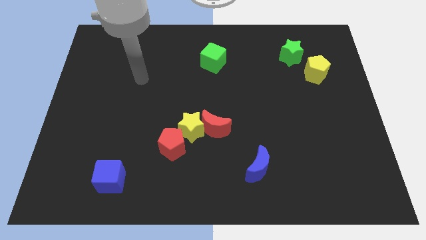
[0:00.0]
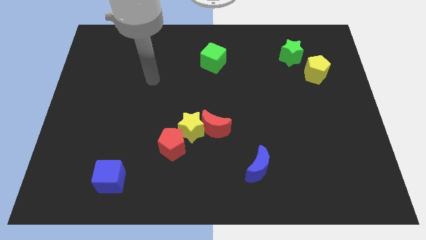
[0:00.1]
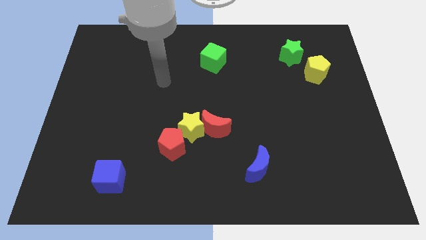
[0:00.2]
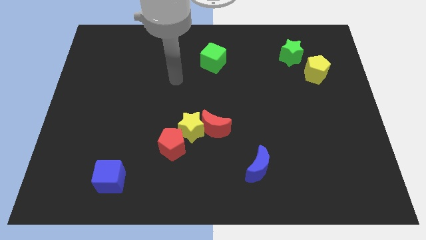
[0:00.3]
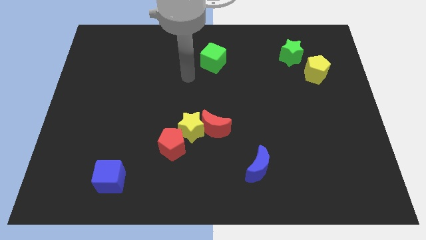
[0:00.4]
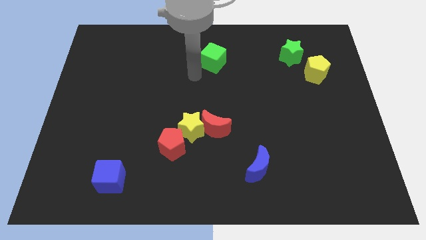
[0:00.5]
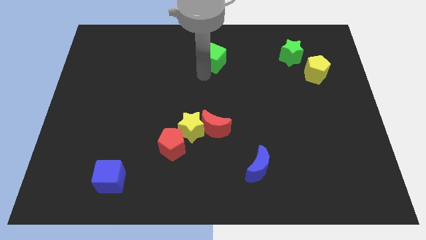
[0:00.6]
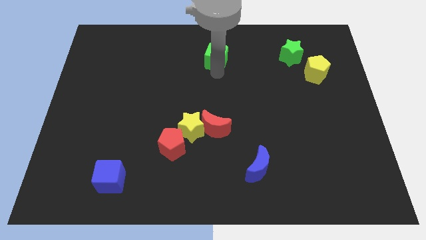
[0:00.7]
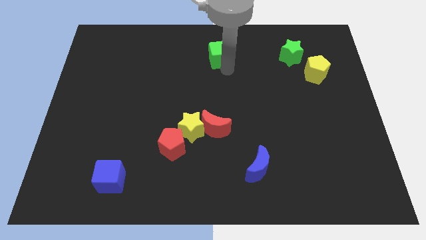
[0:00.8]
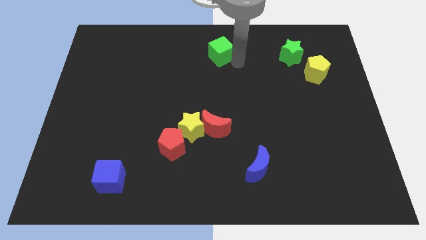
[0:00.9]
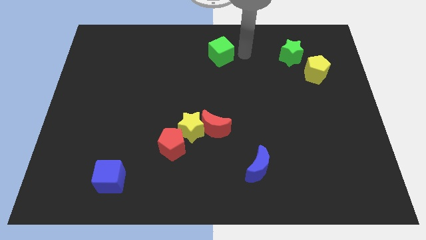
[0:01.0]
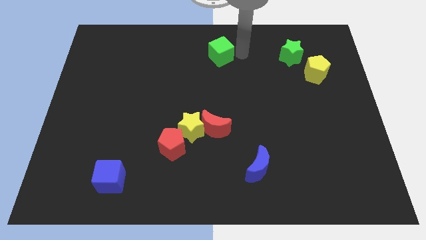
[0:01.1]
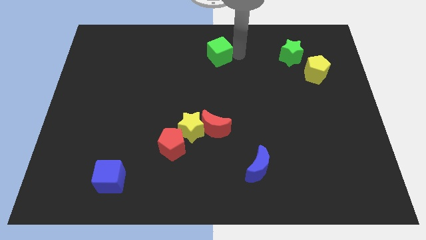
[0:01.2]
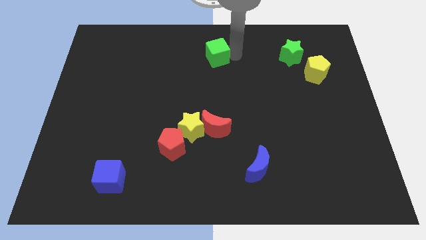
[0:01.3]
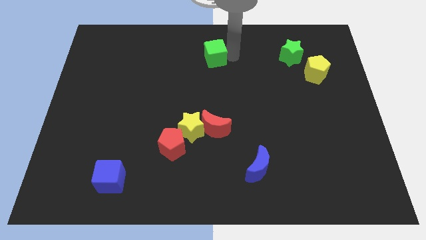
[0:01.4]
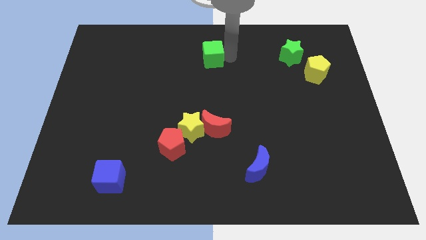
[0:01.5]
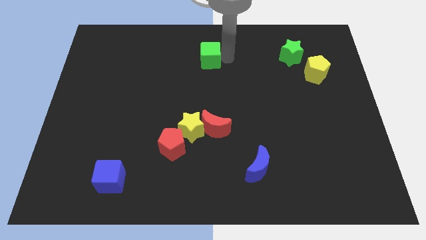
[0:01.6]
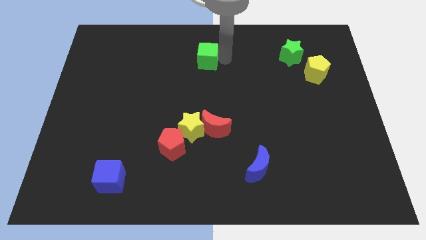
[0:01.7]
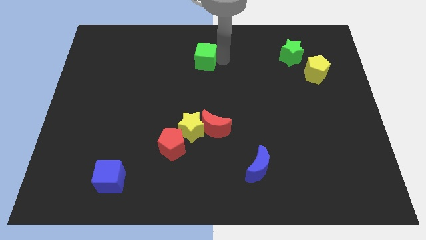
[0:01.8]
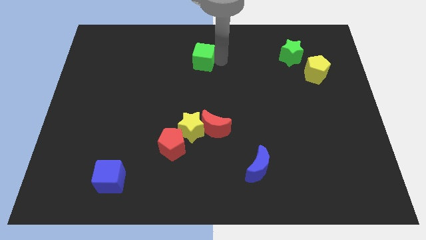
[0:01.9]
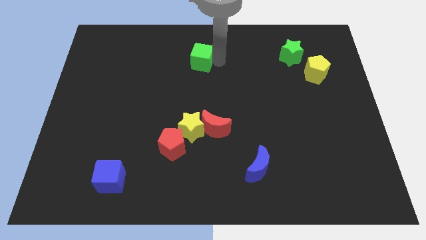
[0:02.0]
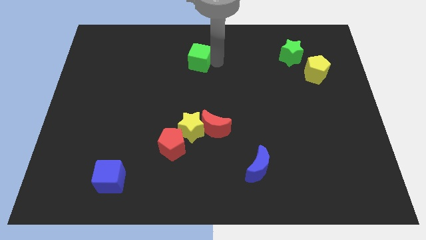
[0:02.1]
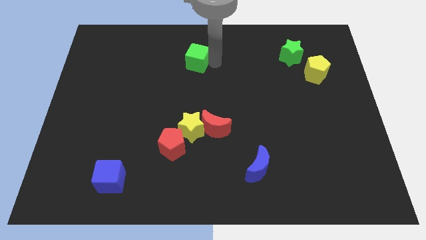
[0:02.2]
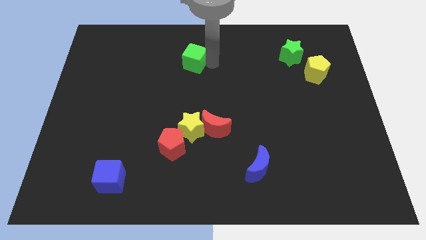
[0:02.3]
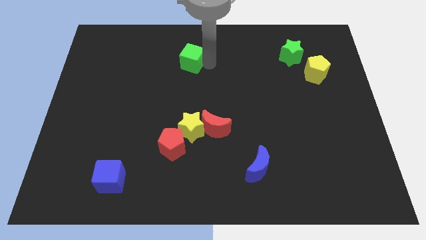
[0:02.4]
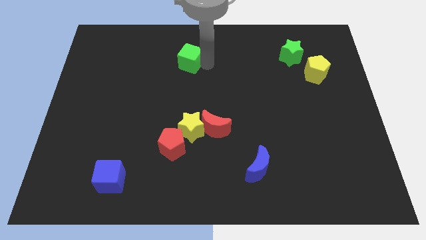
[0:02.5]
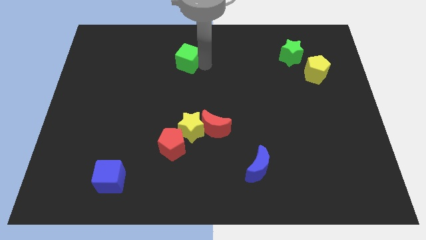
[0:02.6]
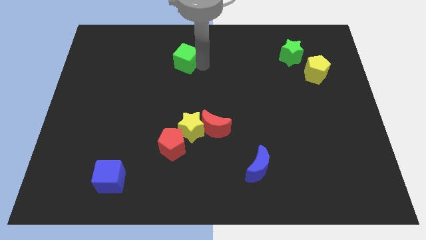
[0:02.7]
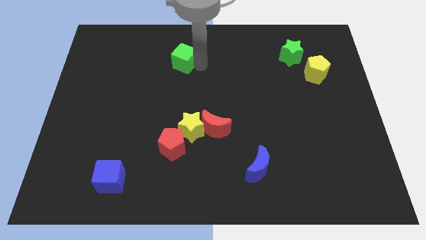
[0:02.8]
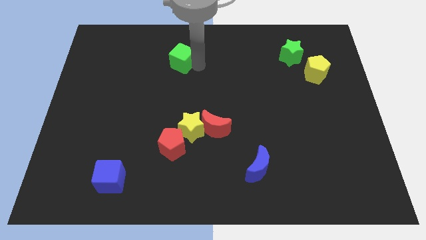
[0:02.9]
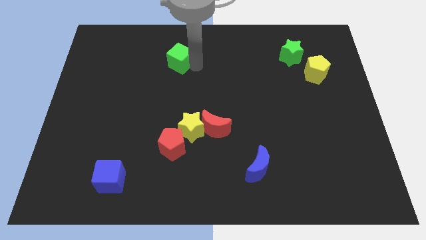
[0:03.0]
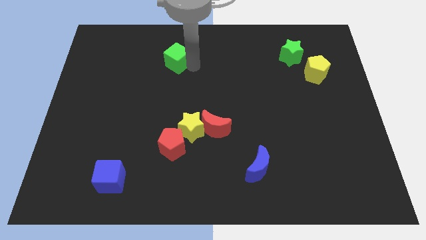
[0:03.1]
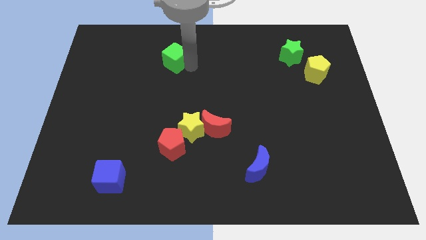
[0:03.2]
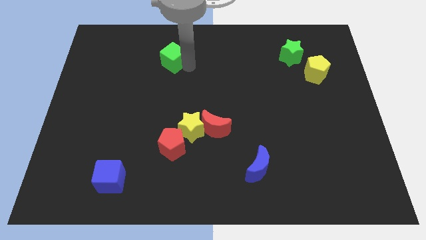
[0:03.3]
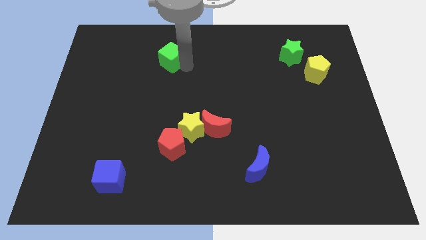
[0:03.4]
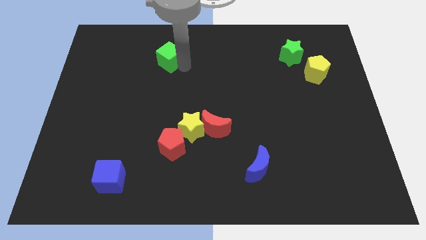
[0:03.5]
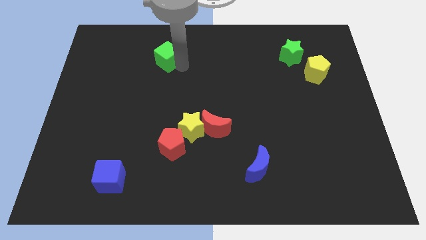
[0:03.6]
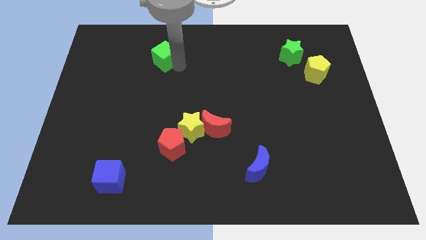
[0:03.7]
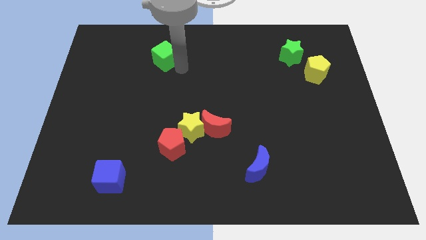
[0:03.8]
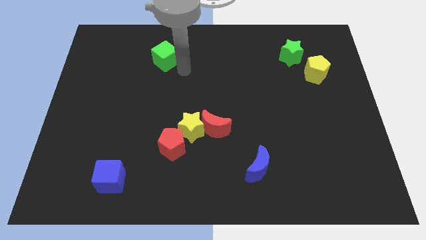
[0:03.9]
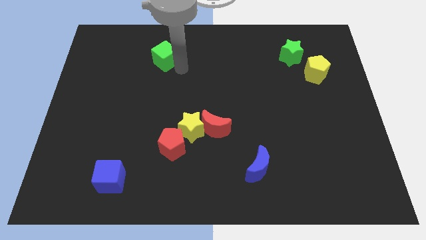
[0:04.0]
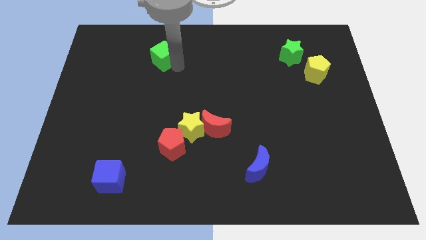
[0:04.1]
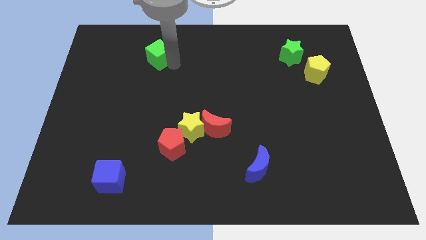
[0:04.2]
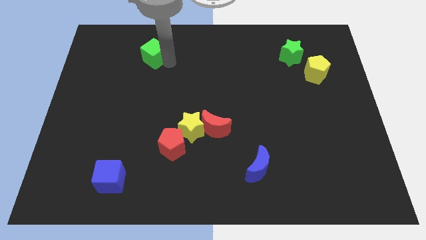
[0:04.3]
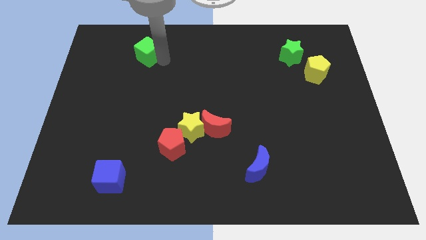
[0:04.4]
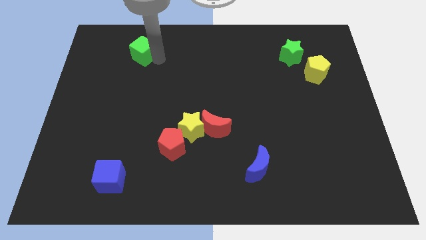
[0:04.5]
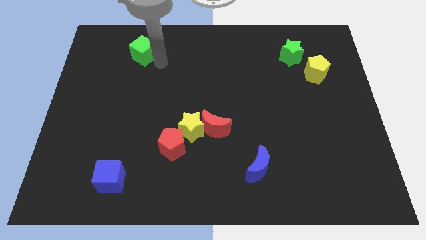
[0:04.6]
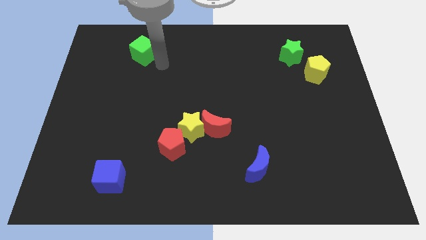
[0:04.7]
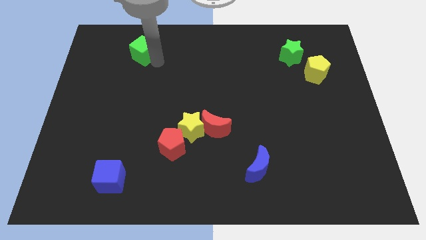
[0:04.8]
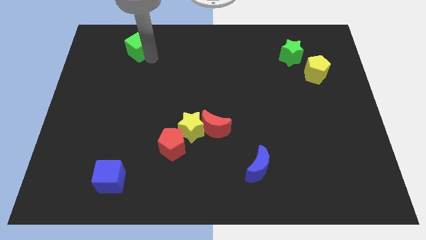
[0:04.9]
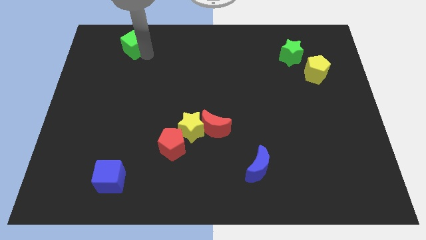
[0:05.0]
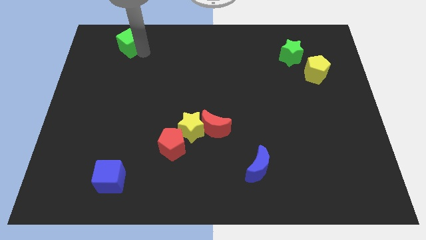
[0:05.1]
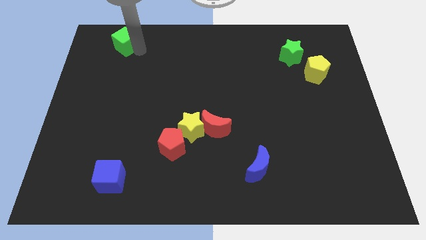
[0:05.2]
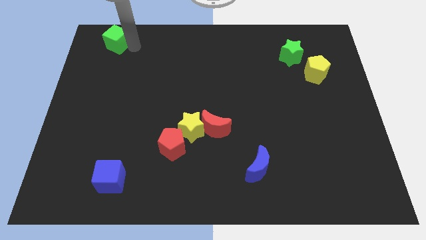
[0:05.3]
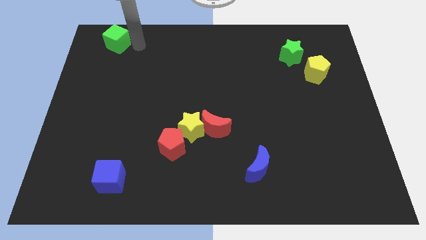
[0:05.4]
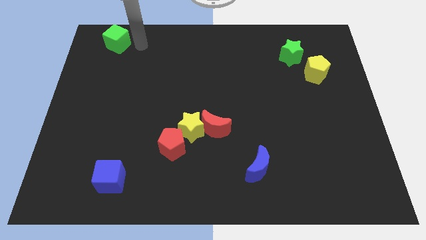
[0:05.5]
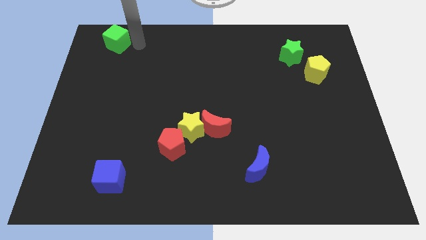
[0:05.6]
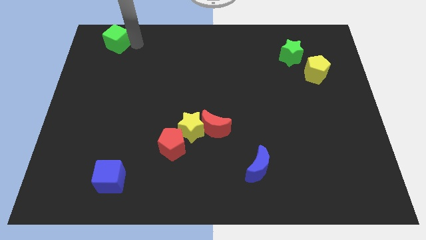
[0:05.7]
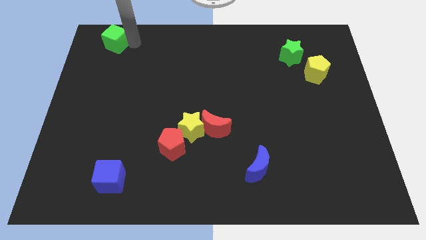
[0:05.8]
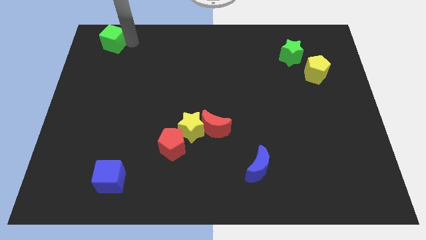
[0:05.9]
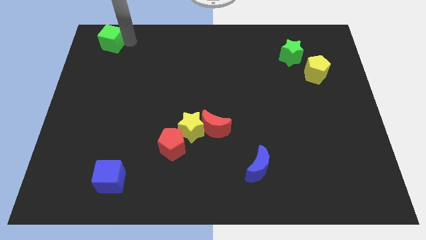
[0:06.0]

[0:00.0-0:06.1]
move the green cube to the top left corner

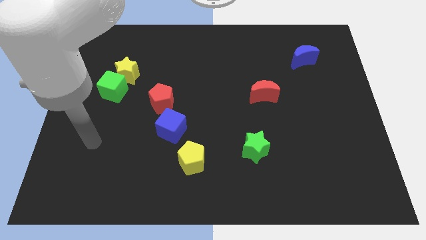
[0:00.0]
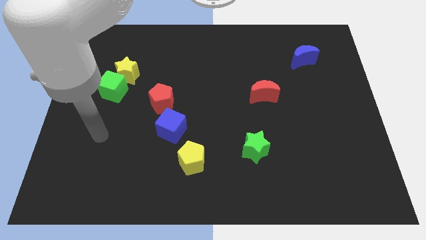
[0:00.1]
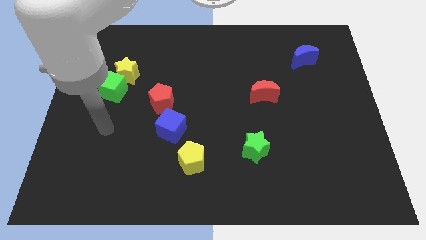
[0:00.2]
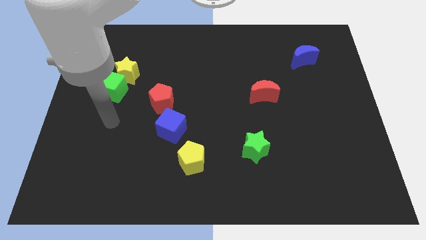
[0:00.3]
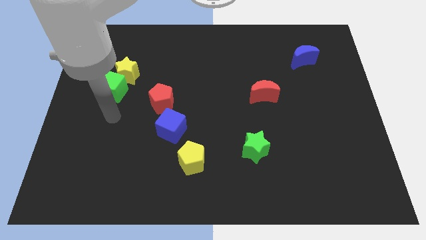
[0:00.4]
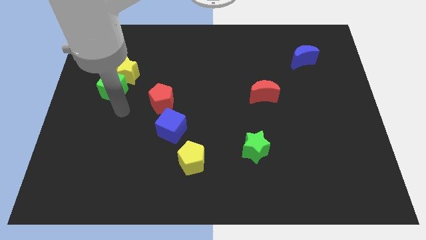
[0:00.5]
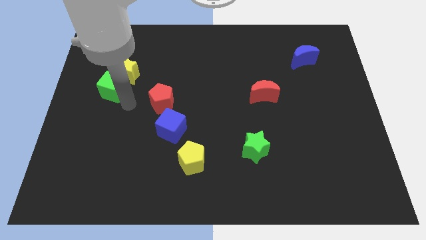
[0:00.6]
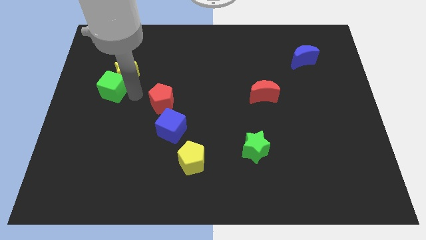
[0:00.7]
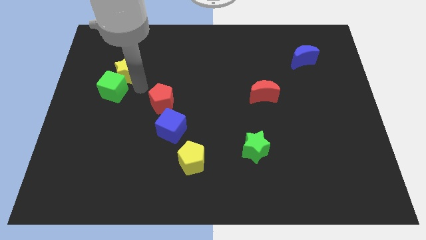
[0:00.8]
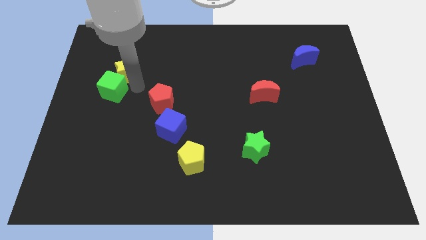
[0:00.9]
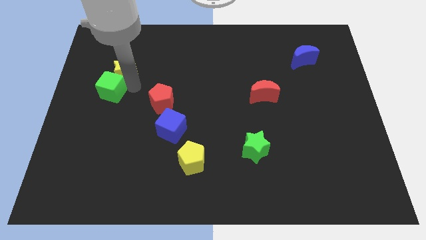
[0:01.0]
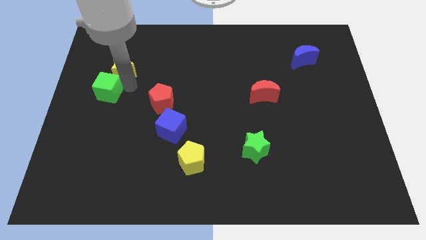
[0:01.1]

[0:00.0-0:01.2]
put the green cube to the left side of the board
